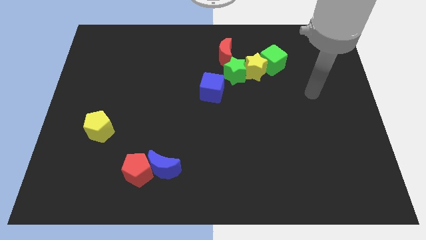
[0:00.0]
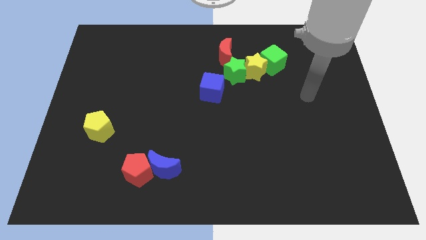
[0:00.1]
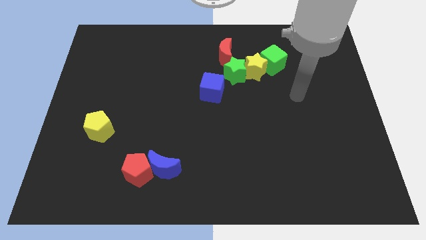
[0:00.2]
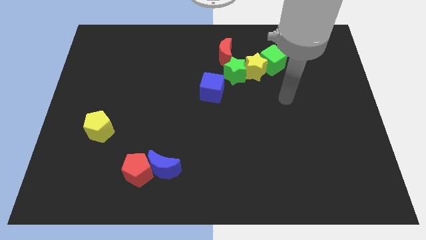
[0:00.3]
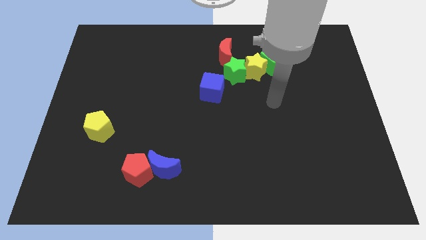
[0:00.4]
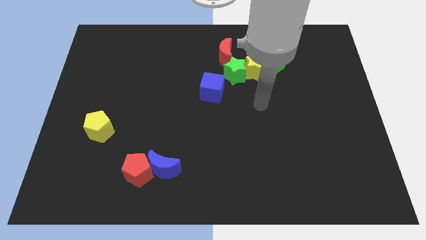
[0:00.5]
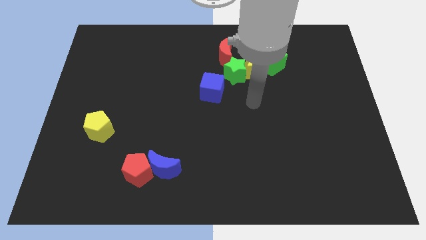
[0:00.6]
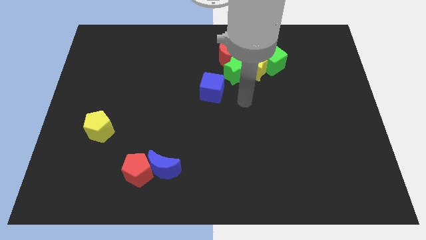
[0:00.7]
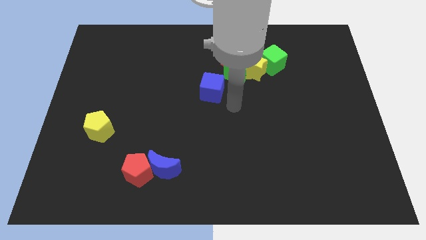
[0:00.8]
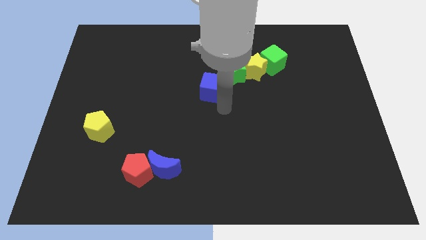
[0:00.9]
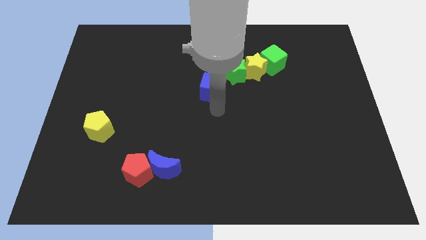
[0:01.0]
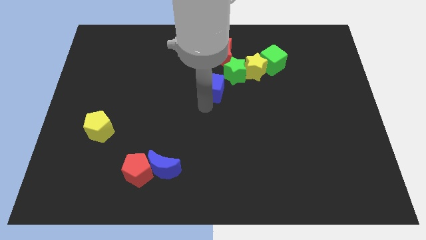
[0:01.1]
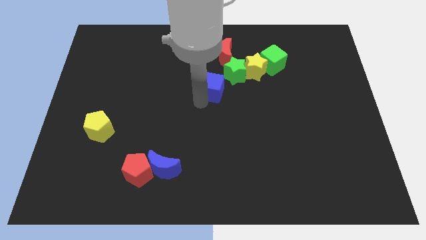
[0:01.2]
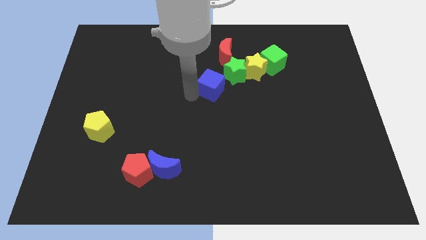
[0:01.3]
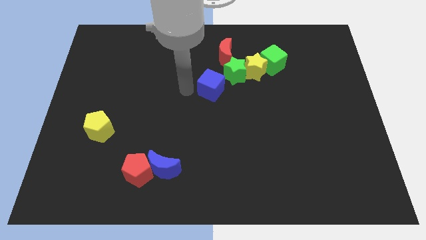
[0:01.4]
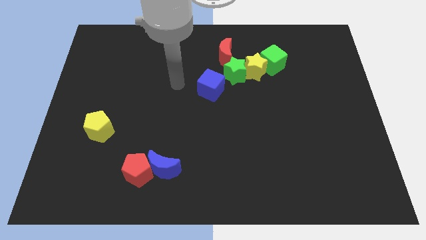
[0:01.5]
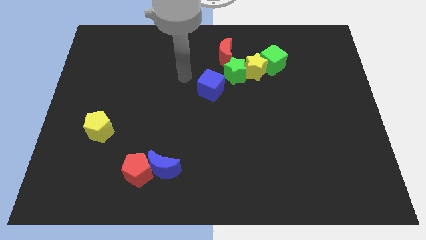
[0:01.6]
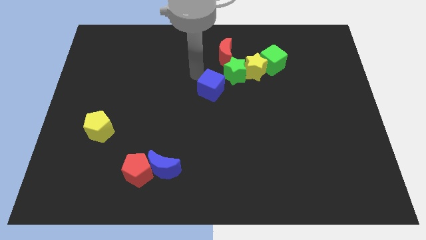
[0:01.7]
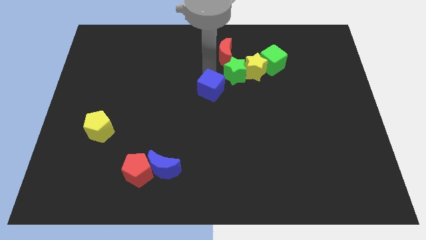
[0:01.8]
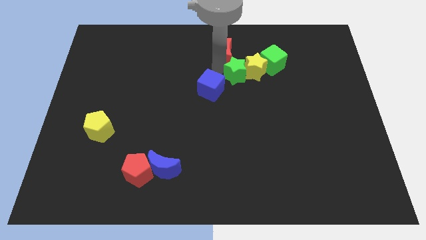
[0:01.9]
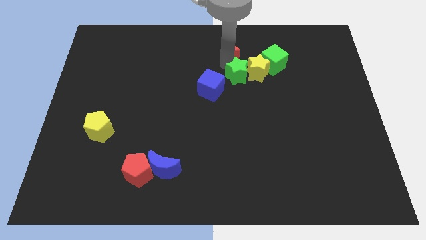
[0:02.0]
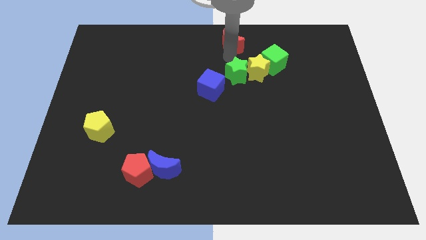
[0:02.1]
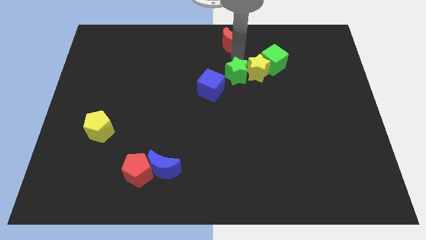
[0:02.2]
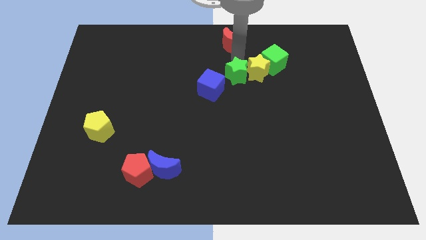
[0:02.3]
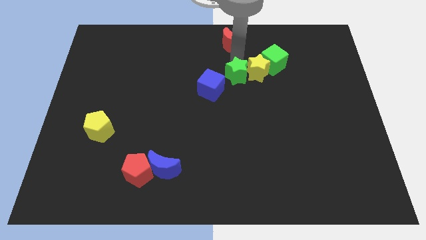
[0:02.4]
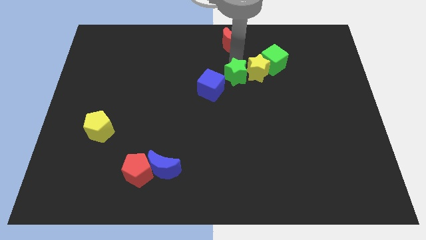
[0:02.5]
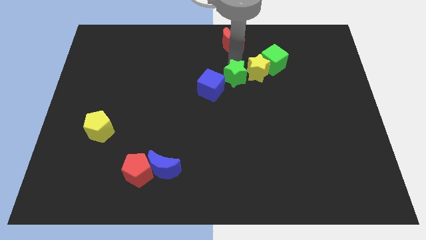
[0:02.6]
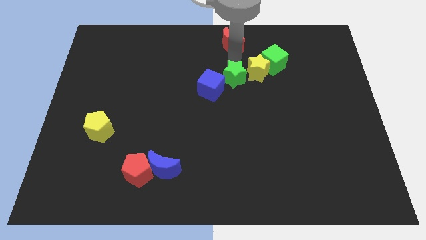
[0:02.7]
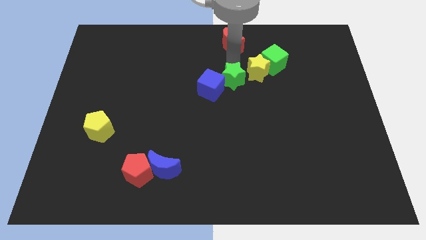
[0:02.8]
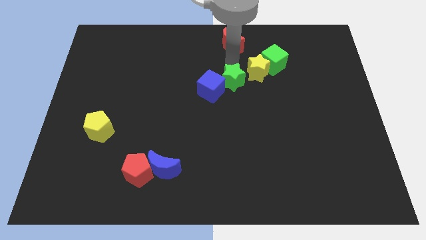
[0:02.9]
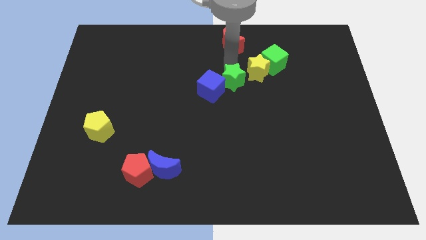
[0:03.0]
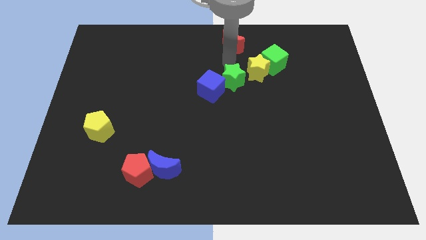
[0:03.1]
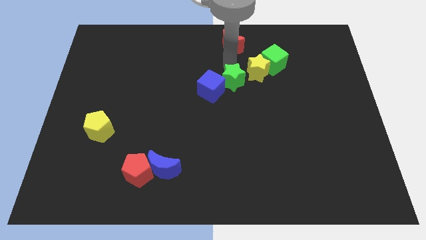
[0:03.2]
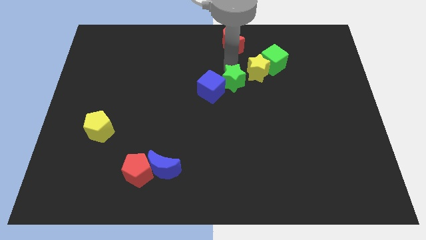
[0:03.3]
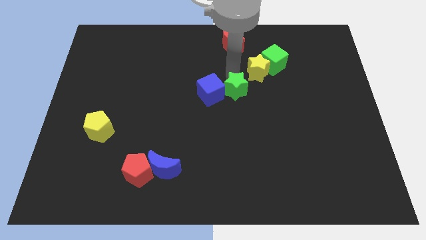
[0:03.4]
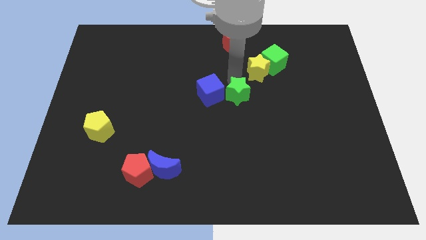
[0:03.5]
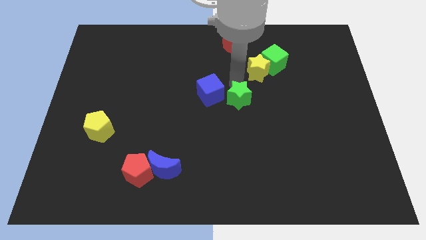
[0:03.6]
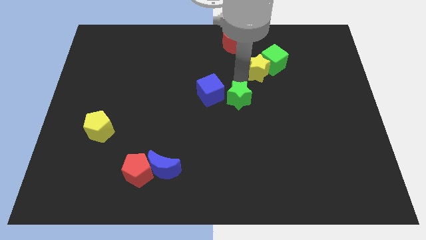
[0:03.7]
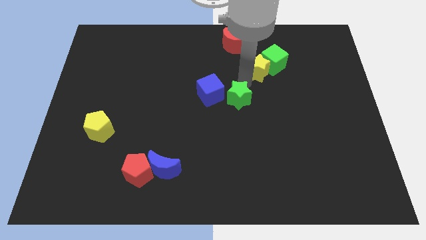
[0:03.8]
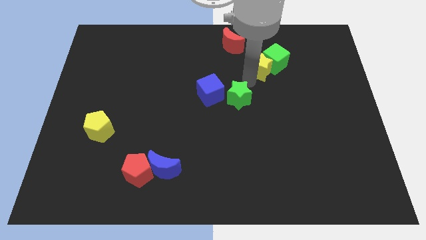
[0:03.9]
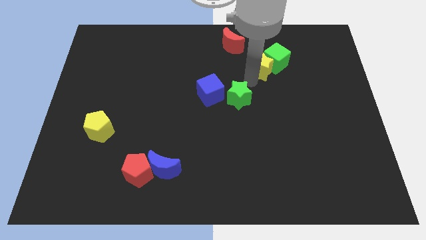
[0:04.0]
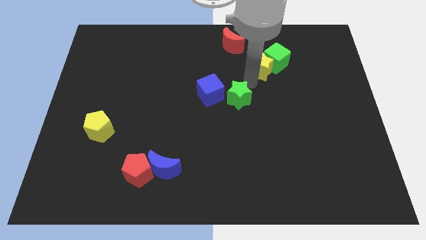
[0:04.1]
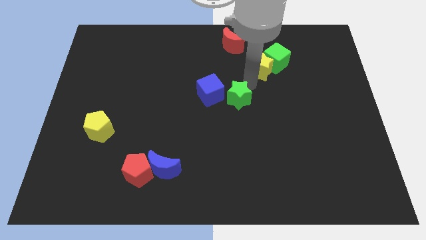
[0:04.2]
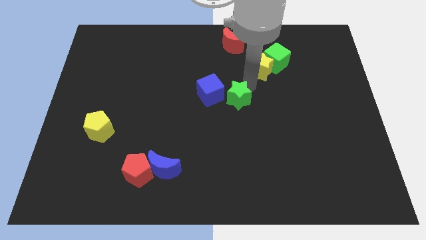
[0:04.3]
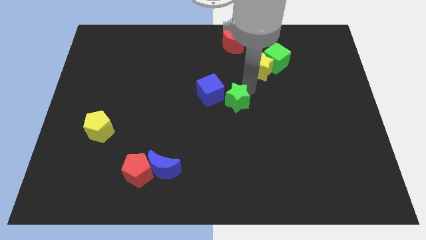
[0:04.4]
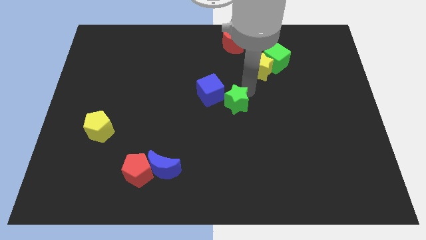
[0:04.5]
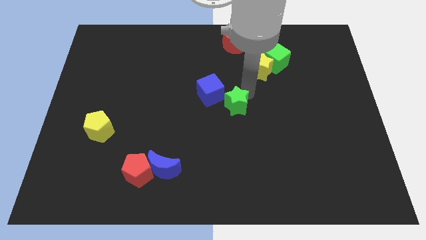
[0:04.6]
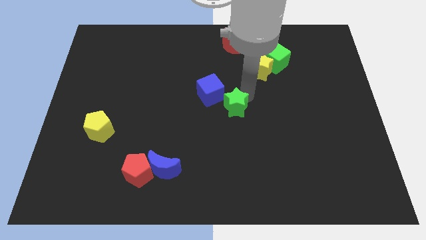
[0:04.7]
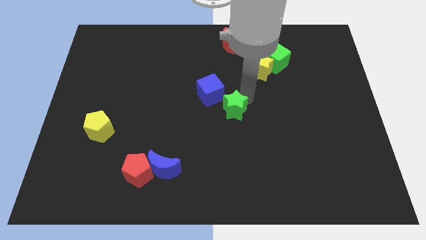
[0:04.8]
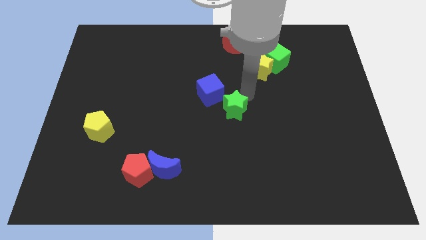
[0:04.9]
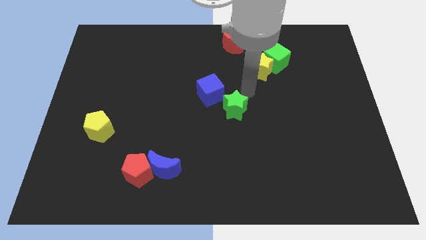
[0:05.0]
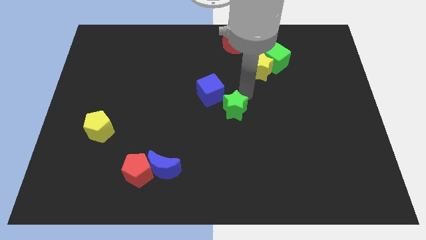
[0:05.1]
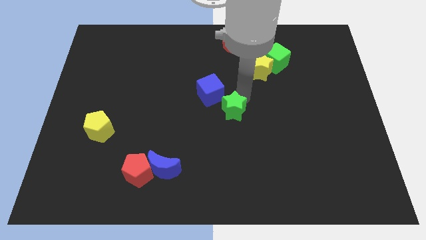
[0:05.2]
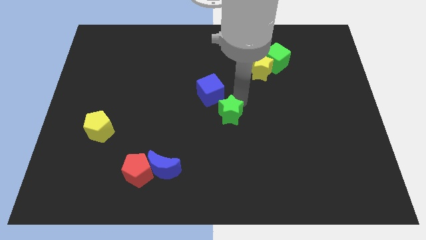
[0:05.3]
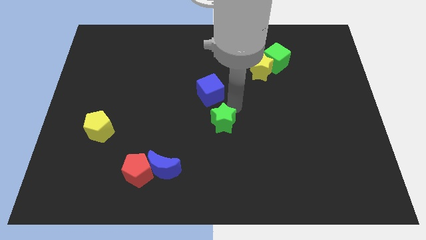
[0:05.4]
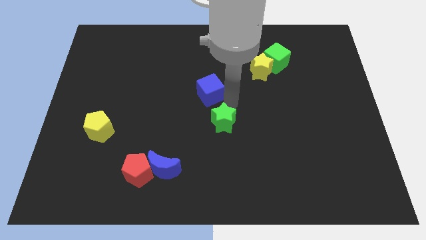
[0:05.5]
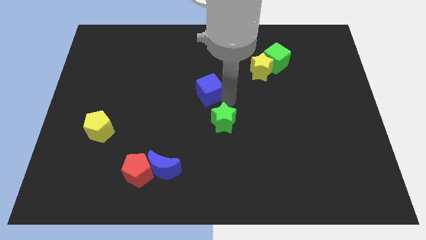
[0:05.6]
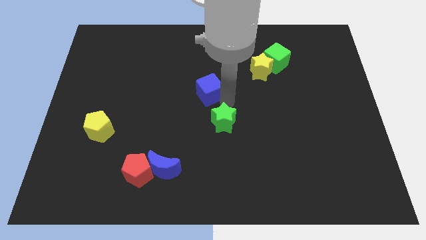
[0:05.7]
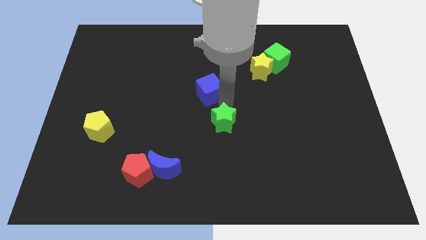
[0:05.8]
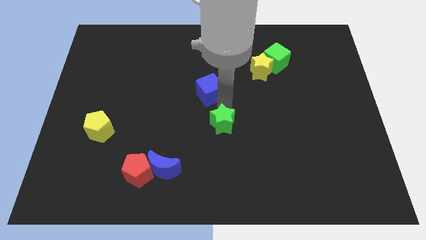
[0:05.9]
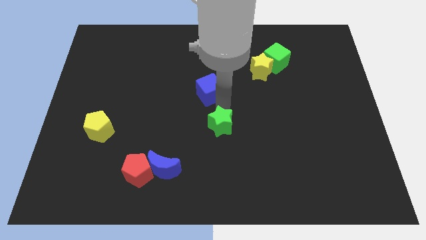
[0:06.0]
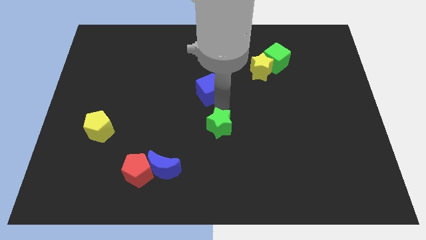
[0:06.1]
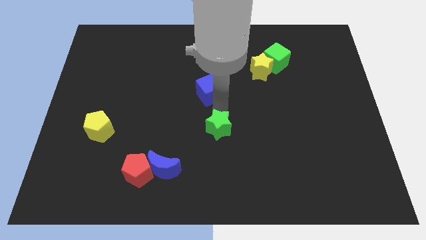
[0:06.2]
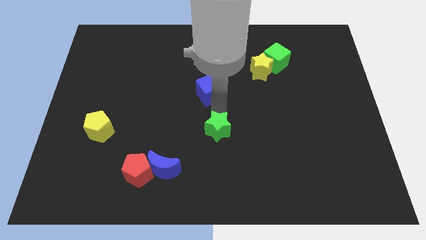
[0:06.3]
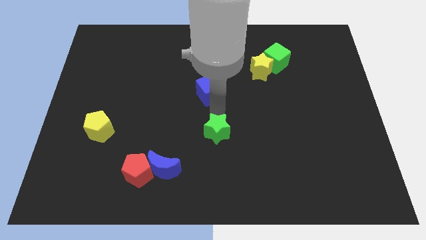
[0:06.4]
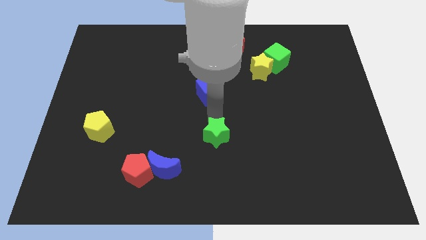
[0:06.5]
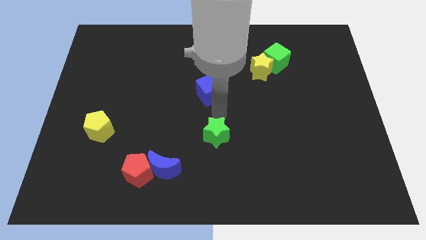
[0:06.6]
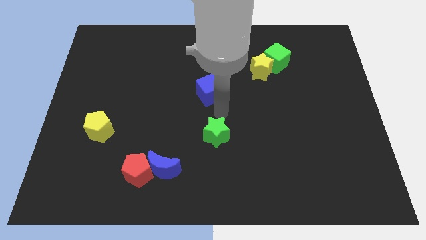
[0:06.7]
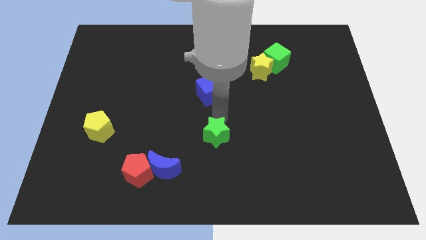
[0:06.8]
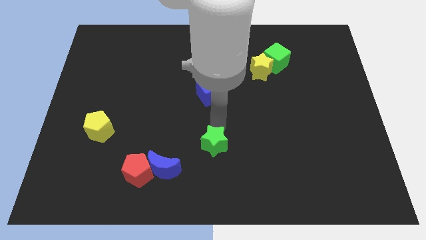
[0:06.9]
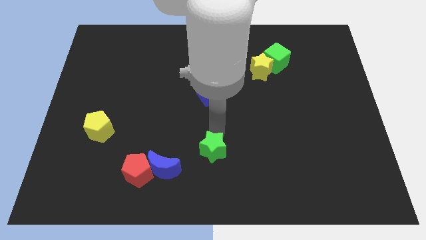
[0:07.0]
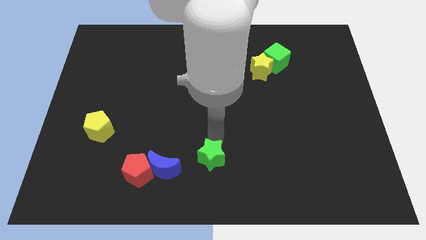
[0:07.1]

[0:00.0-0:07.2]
move the green star to the bottom side

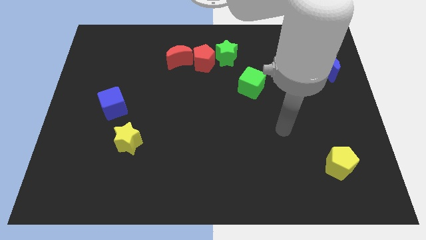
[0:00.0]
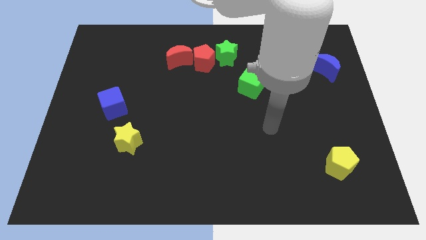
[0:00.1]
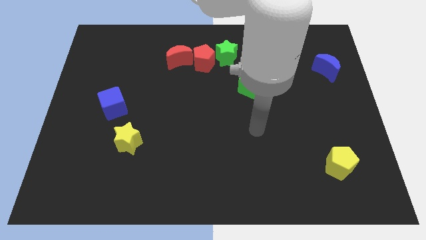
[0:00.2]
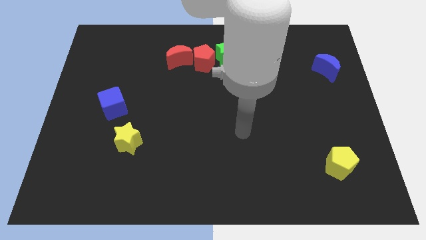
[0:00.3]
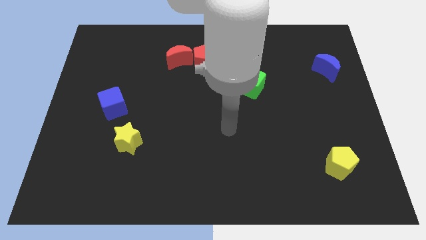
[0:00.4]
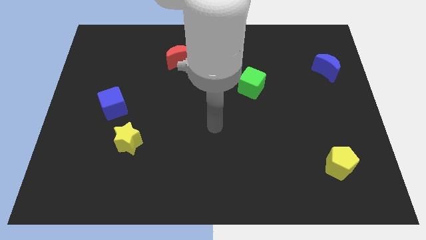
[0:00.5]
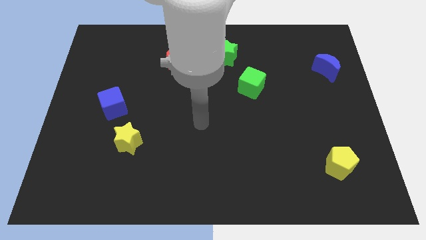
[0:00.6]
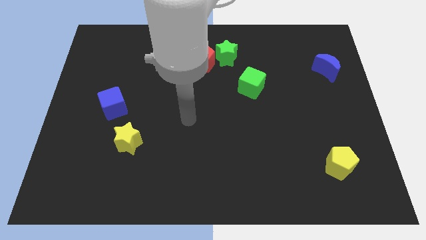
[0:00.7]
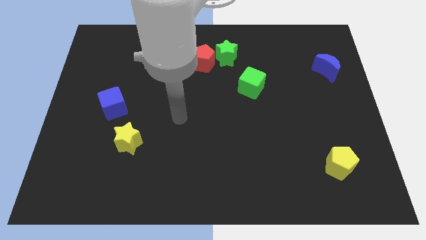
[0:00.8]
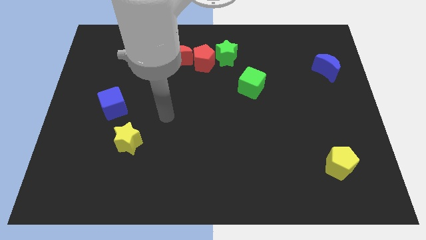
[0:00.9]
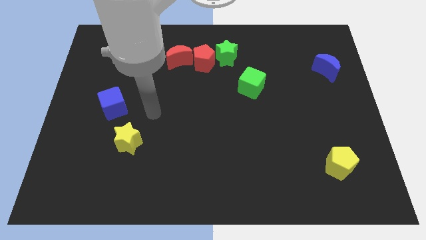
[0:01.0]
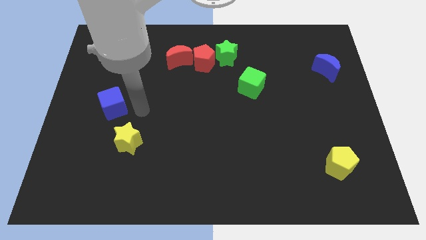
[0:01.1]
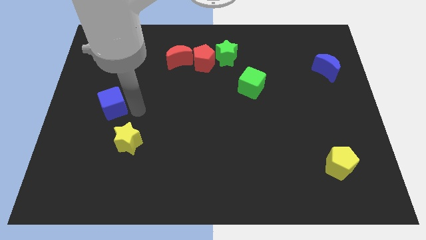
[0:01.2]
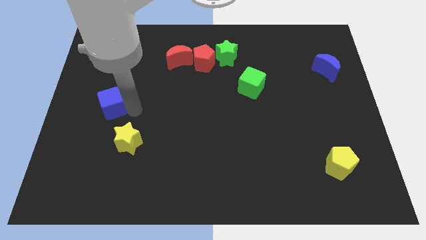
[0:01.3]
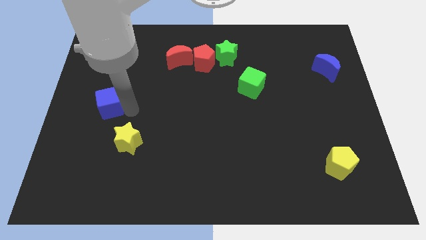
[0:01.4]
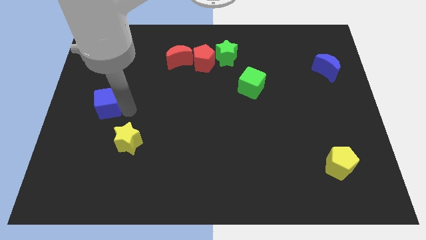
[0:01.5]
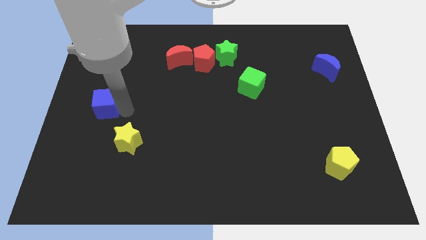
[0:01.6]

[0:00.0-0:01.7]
put the blue cube to the left side of the board
